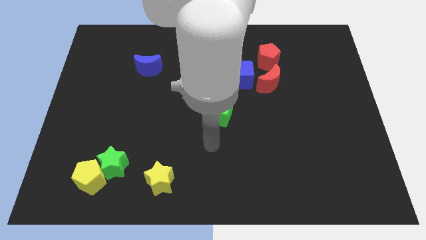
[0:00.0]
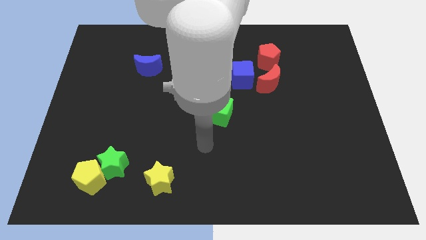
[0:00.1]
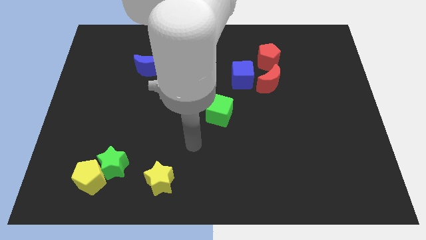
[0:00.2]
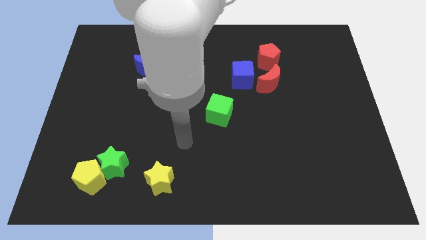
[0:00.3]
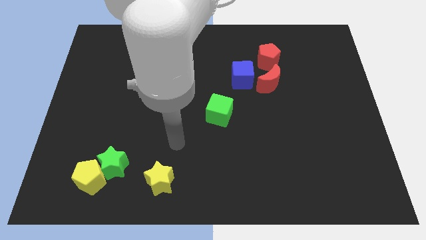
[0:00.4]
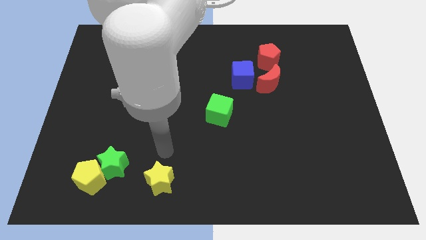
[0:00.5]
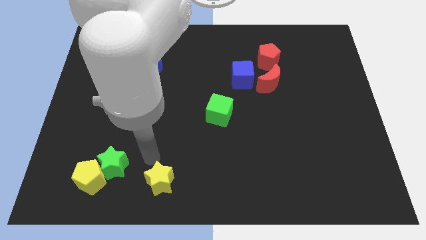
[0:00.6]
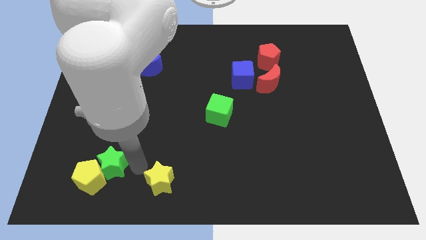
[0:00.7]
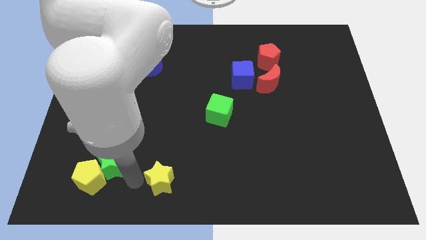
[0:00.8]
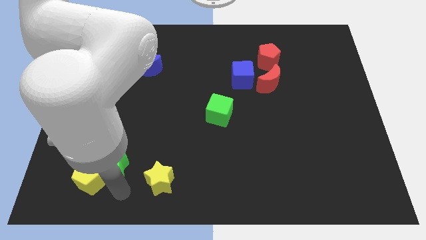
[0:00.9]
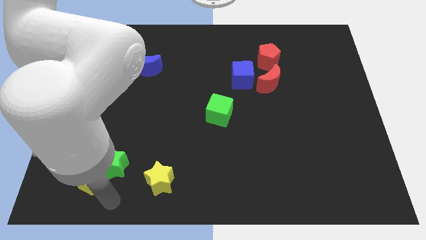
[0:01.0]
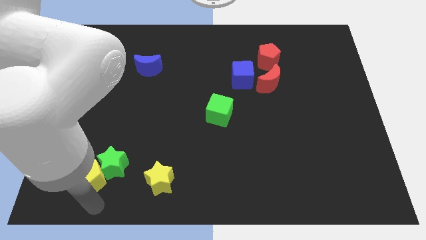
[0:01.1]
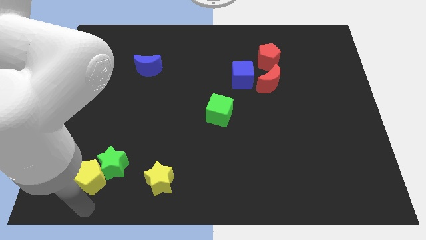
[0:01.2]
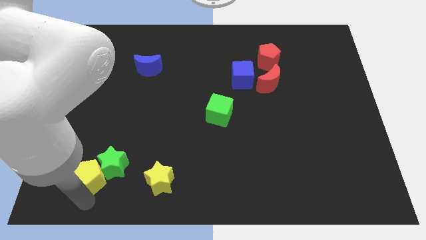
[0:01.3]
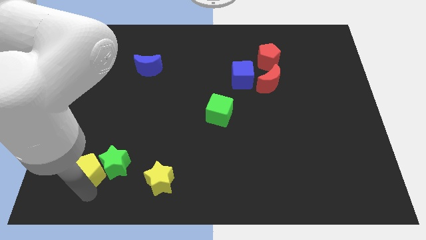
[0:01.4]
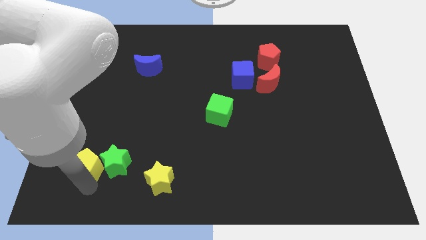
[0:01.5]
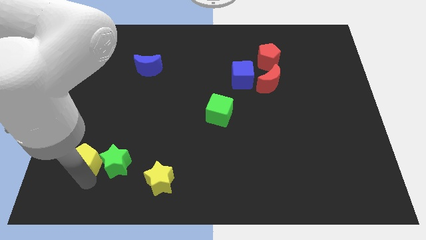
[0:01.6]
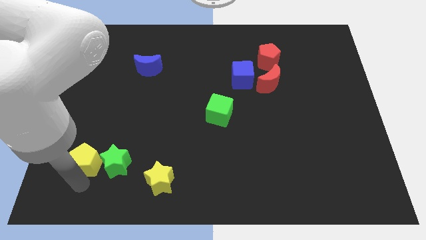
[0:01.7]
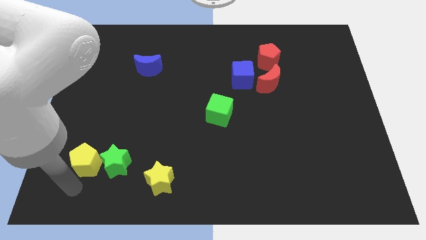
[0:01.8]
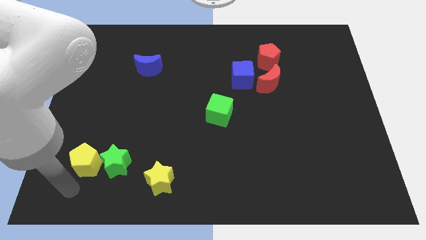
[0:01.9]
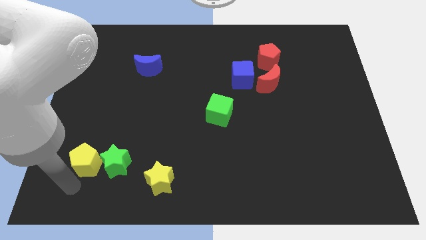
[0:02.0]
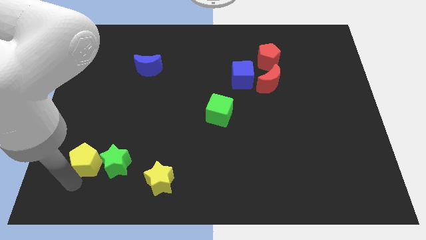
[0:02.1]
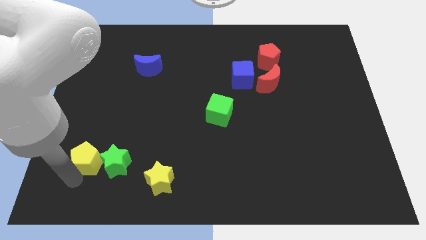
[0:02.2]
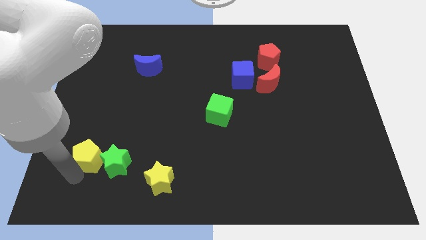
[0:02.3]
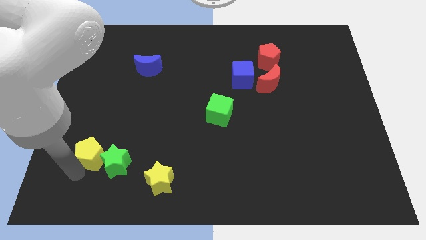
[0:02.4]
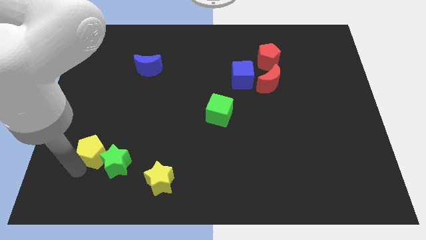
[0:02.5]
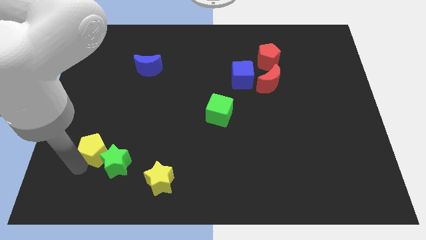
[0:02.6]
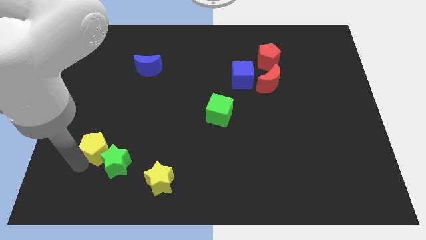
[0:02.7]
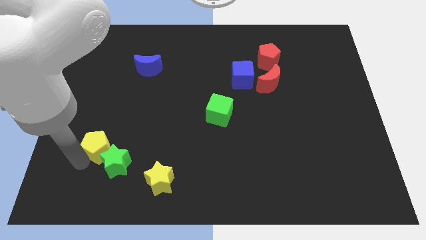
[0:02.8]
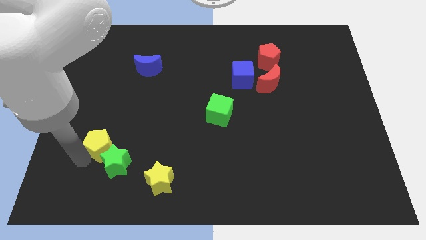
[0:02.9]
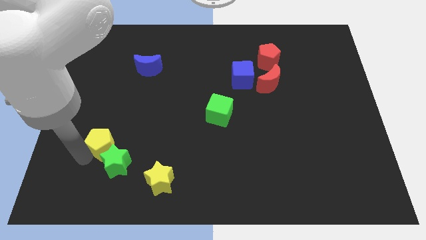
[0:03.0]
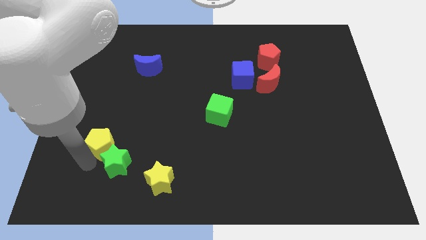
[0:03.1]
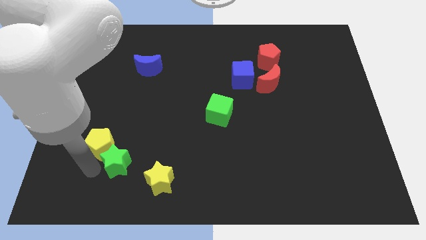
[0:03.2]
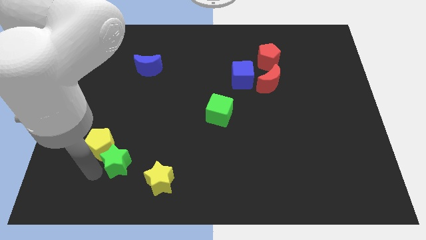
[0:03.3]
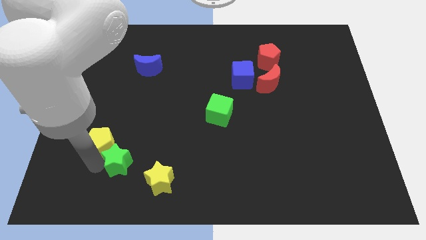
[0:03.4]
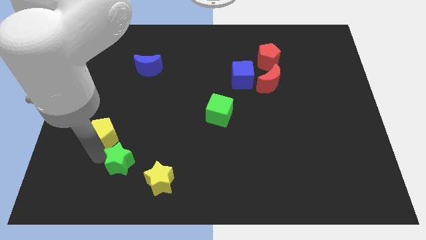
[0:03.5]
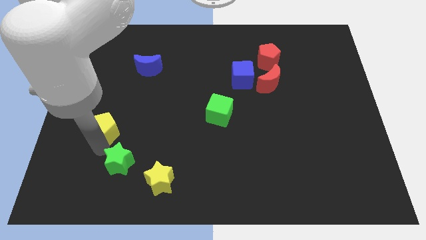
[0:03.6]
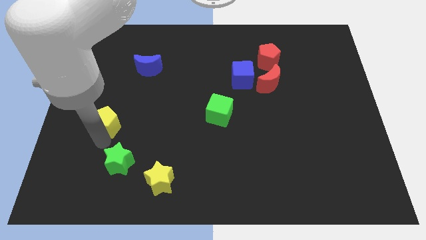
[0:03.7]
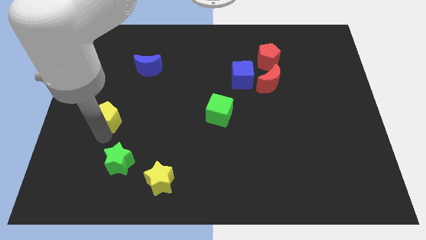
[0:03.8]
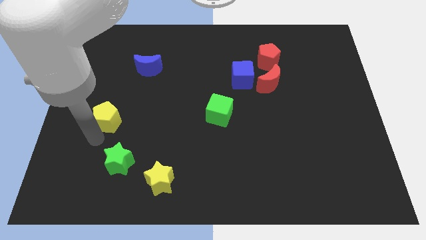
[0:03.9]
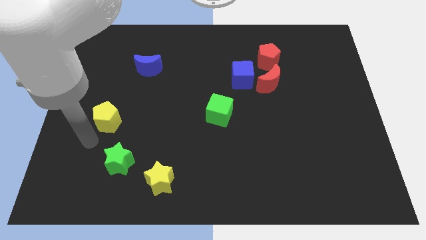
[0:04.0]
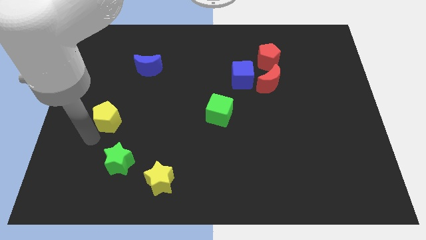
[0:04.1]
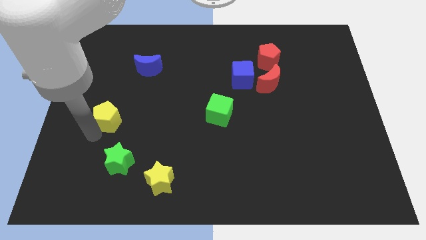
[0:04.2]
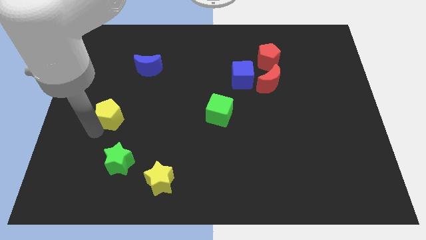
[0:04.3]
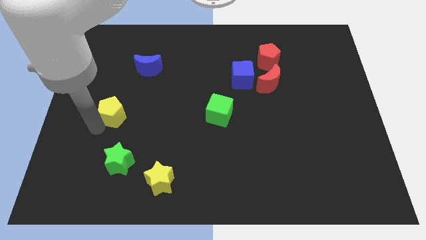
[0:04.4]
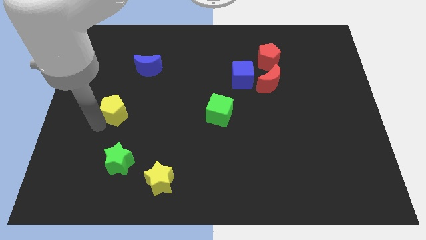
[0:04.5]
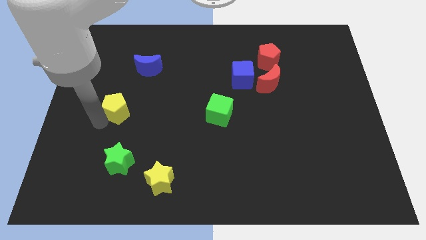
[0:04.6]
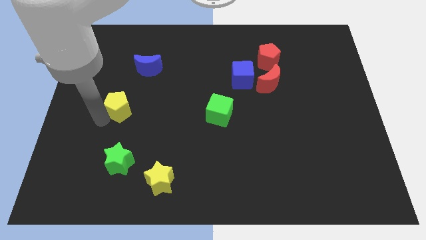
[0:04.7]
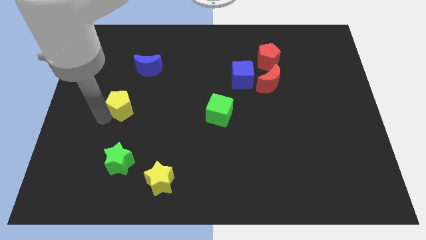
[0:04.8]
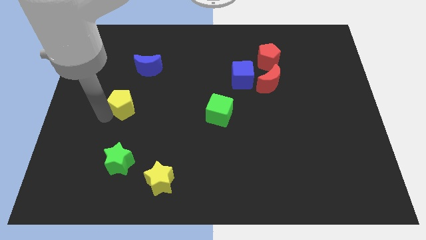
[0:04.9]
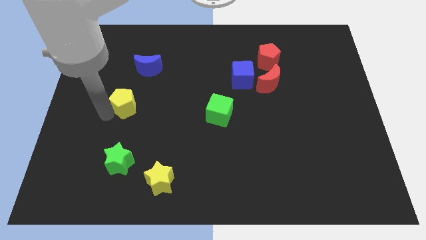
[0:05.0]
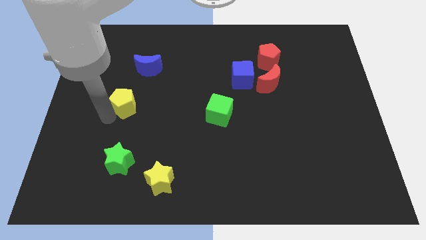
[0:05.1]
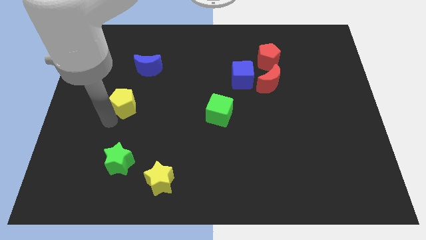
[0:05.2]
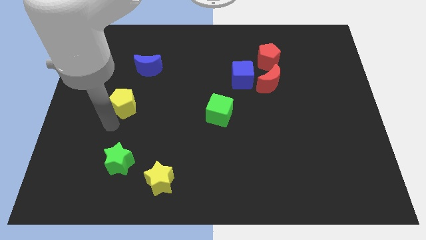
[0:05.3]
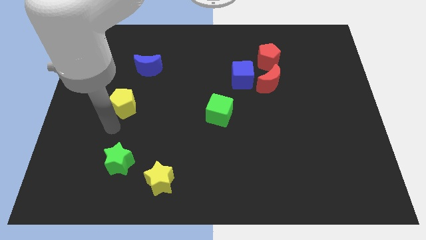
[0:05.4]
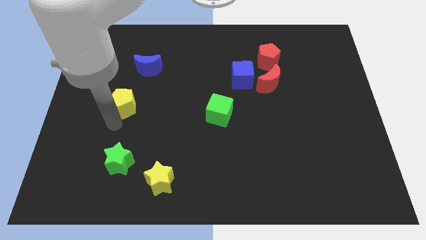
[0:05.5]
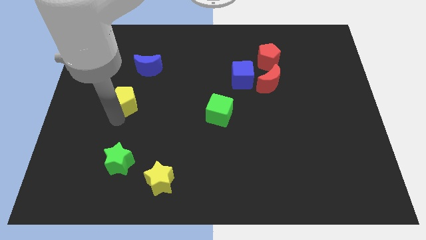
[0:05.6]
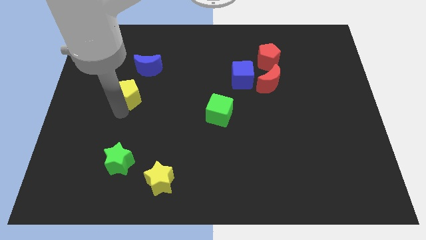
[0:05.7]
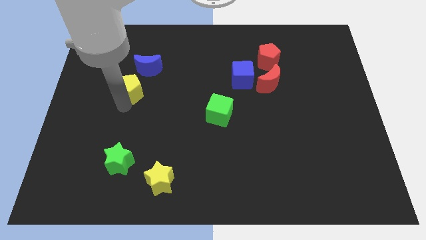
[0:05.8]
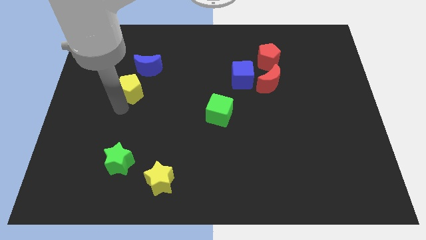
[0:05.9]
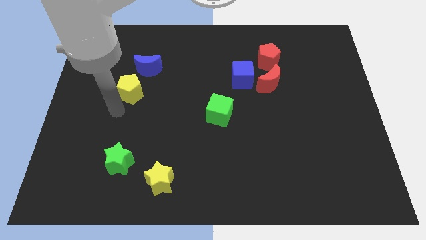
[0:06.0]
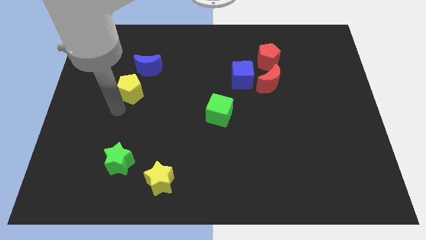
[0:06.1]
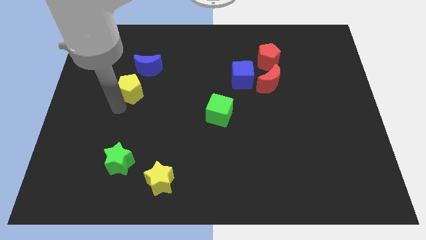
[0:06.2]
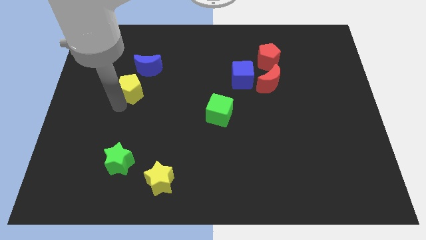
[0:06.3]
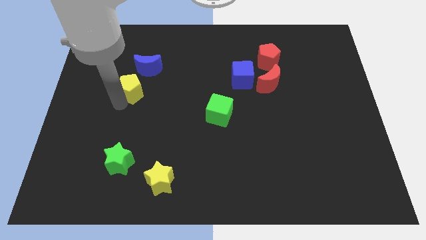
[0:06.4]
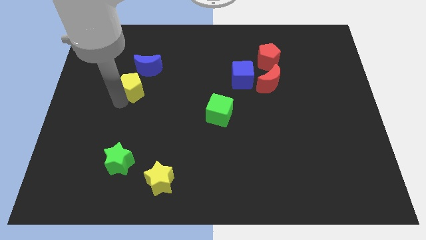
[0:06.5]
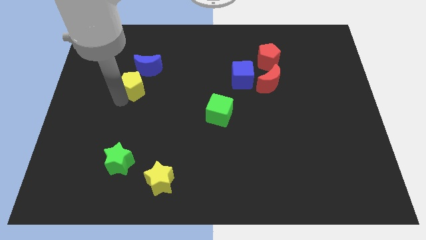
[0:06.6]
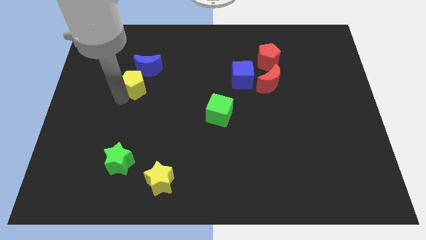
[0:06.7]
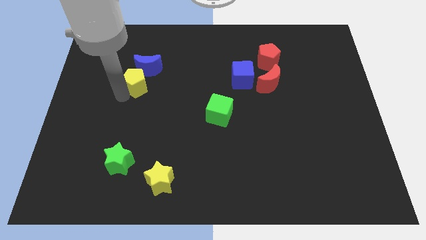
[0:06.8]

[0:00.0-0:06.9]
move the yellow pentagon towards the blue moon
